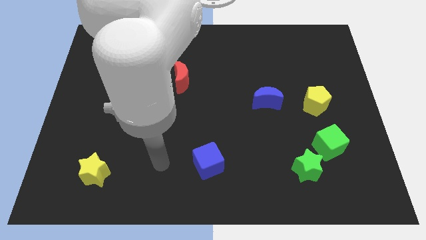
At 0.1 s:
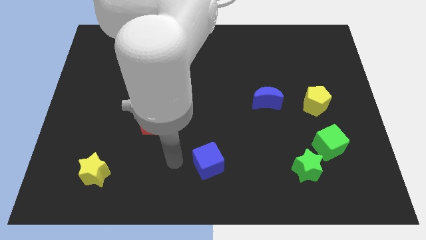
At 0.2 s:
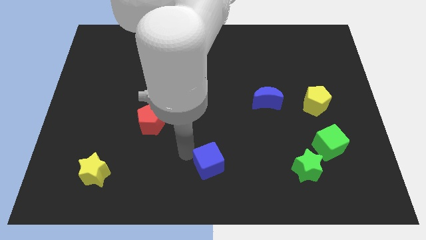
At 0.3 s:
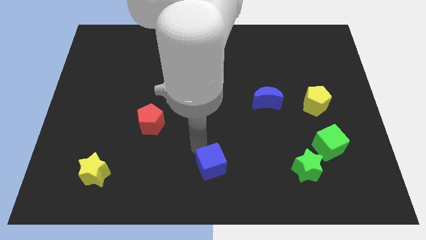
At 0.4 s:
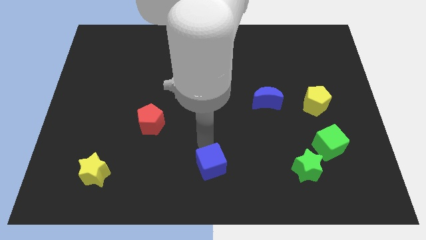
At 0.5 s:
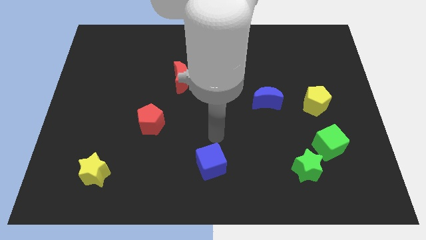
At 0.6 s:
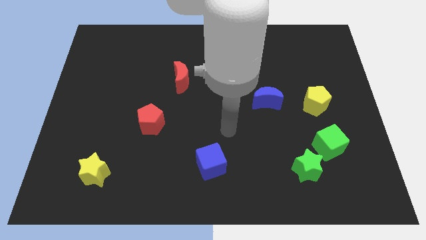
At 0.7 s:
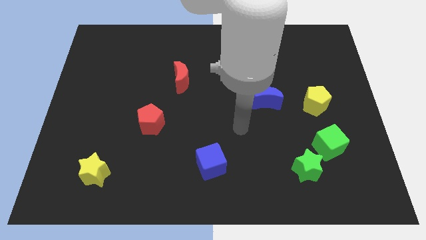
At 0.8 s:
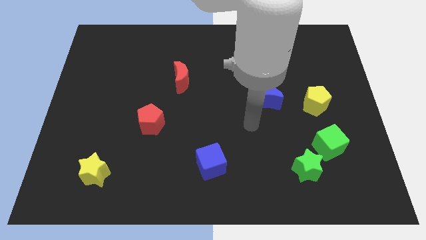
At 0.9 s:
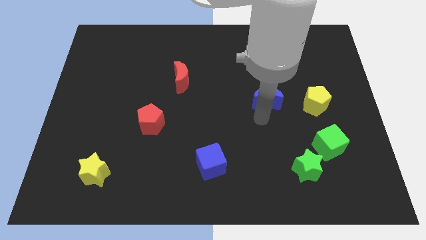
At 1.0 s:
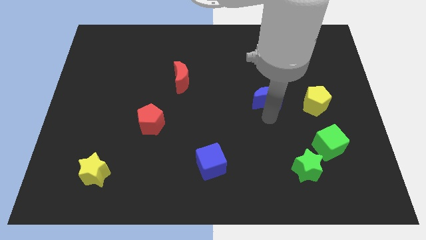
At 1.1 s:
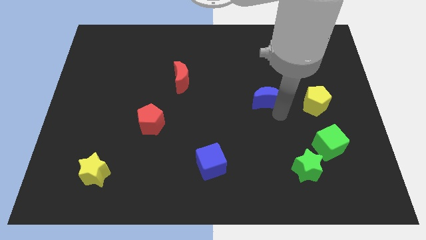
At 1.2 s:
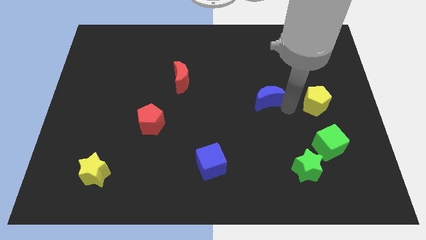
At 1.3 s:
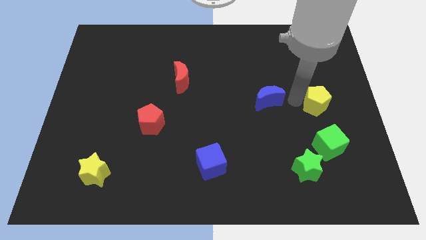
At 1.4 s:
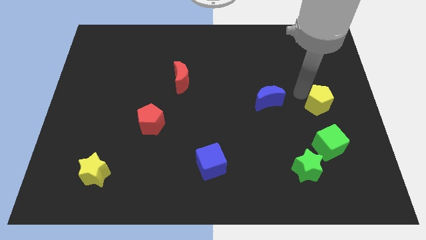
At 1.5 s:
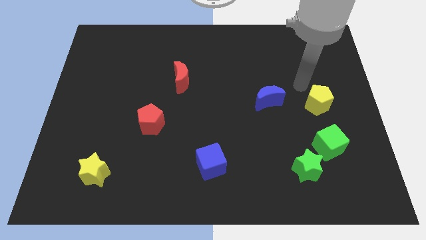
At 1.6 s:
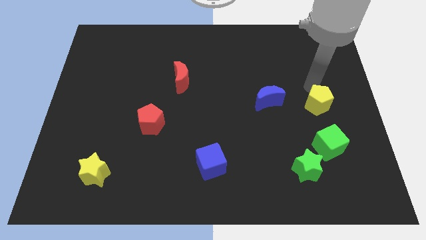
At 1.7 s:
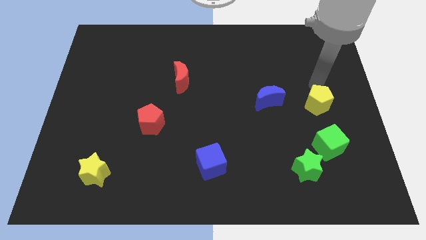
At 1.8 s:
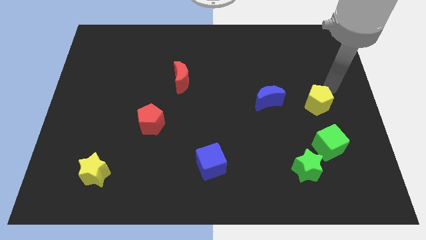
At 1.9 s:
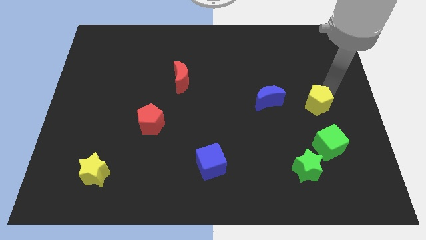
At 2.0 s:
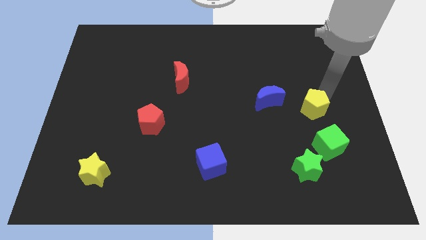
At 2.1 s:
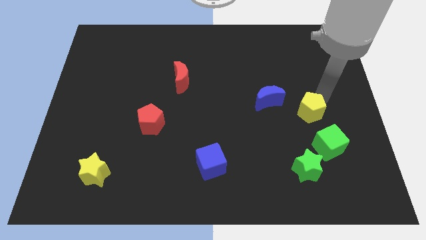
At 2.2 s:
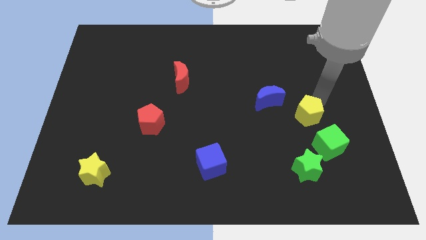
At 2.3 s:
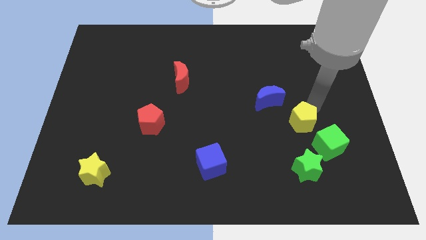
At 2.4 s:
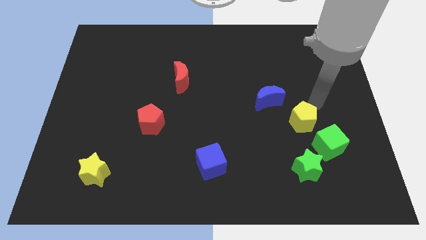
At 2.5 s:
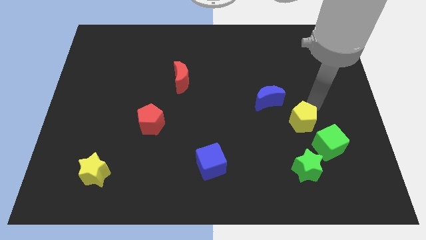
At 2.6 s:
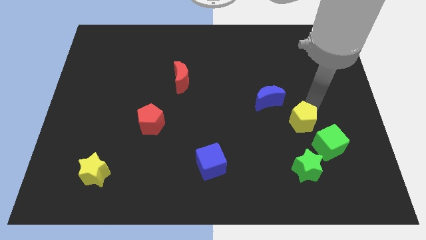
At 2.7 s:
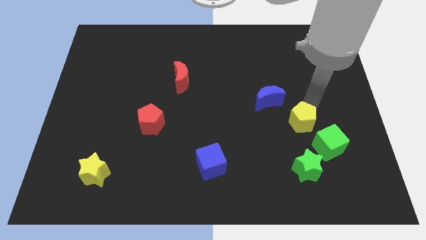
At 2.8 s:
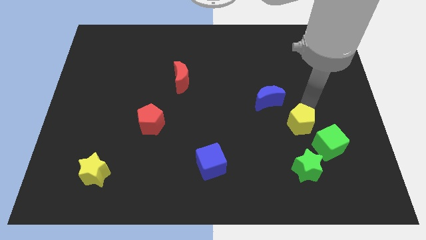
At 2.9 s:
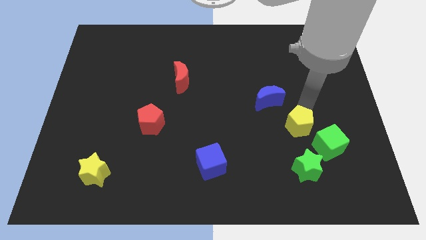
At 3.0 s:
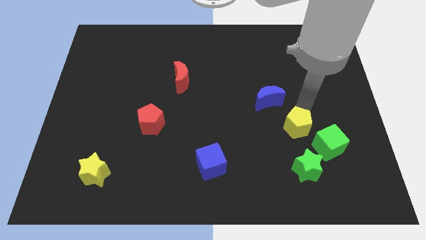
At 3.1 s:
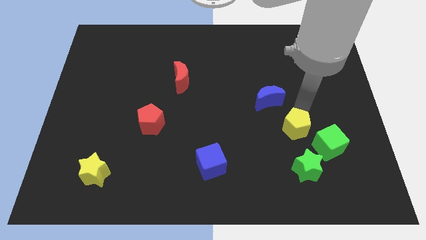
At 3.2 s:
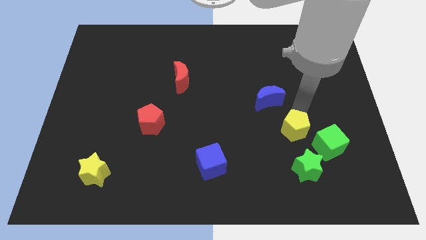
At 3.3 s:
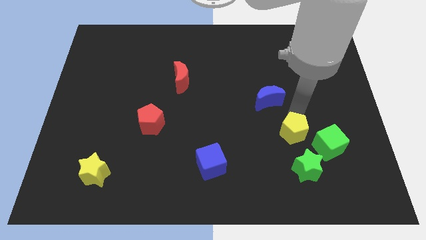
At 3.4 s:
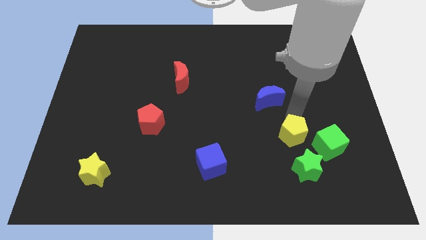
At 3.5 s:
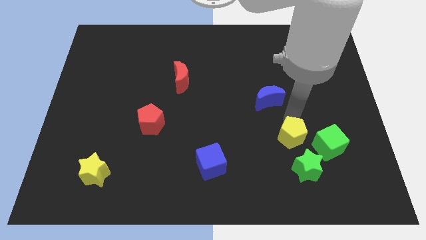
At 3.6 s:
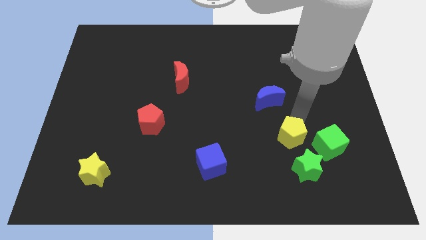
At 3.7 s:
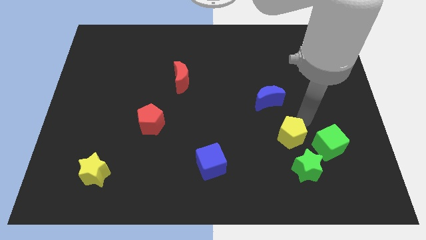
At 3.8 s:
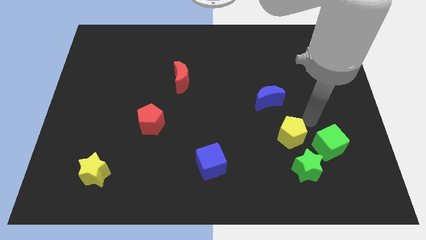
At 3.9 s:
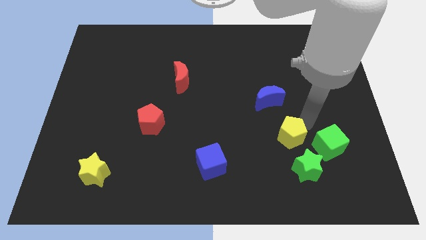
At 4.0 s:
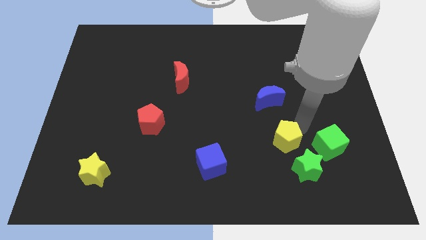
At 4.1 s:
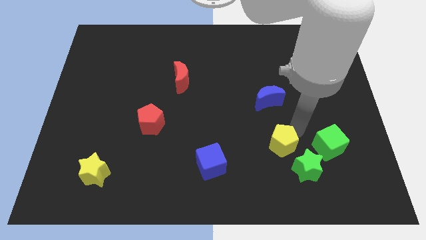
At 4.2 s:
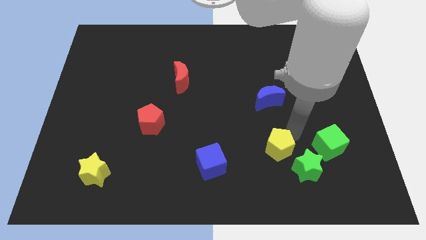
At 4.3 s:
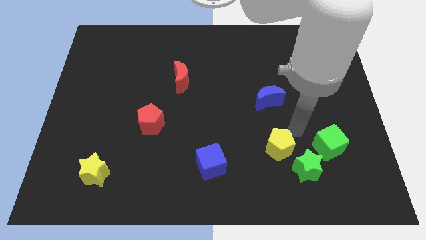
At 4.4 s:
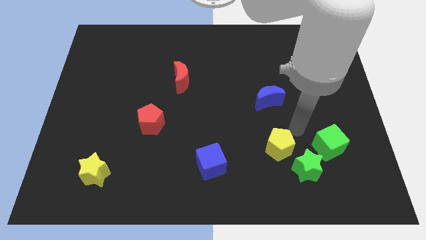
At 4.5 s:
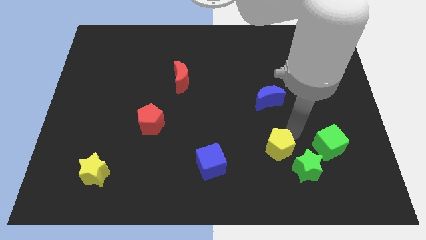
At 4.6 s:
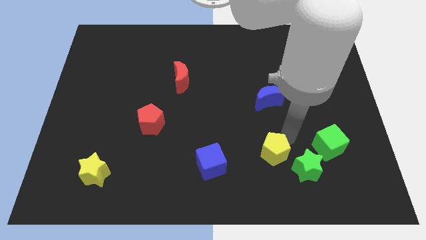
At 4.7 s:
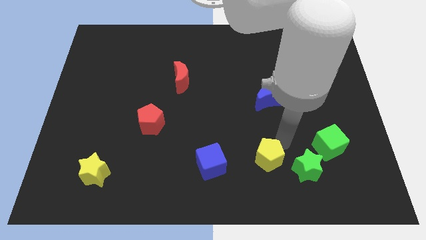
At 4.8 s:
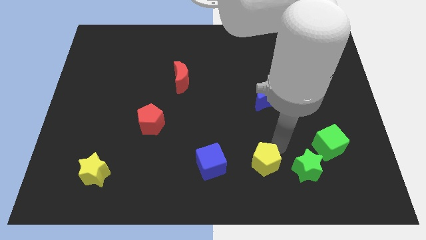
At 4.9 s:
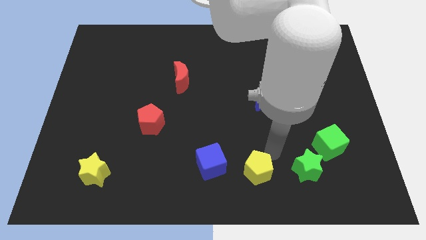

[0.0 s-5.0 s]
put the yellow pentagon to the bottom

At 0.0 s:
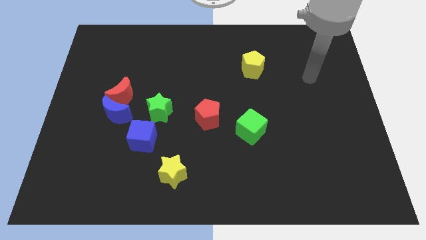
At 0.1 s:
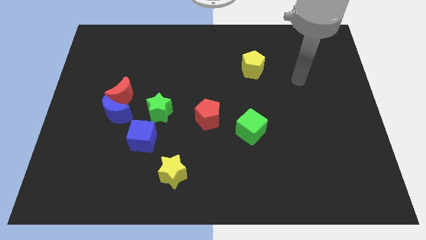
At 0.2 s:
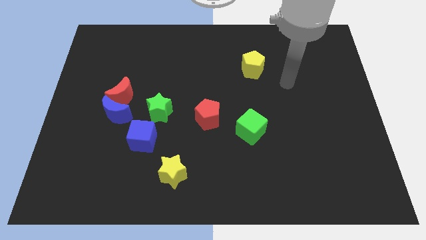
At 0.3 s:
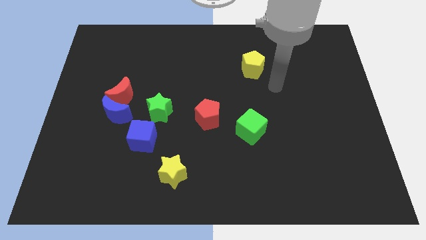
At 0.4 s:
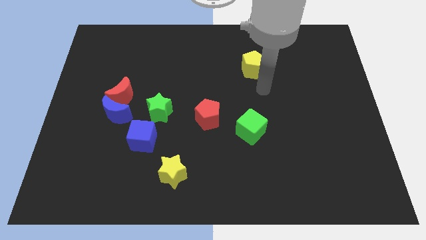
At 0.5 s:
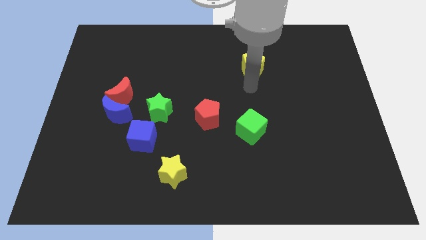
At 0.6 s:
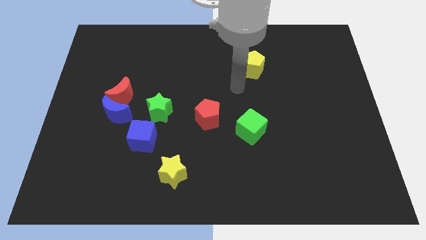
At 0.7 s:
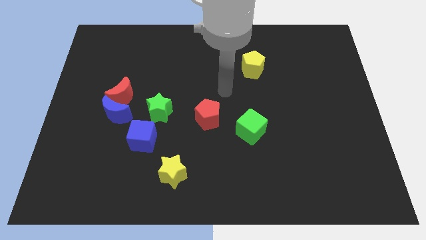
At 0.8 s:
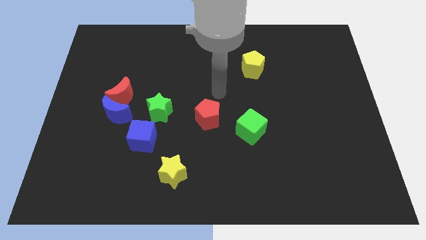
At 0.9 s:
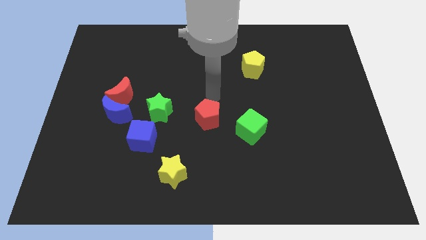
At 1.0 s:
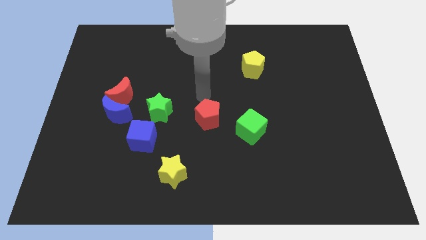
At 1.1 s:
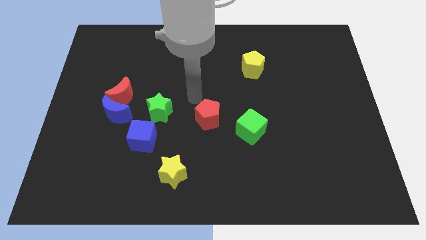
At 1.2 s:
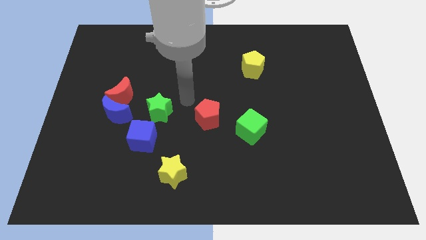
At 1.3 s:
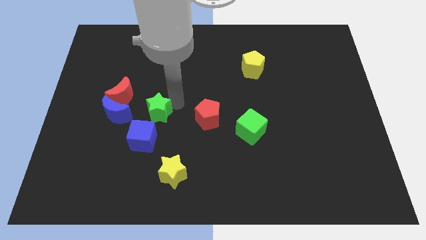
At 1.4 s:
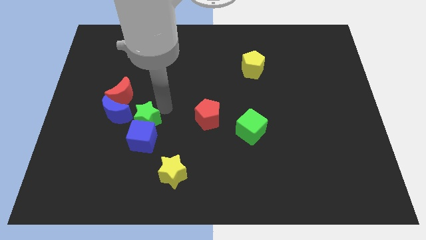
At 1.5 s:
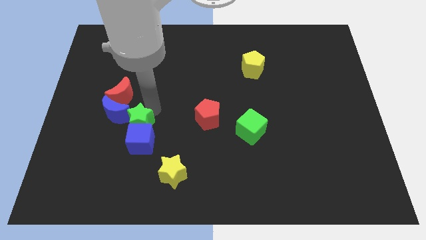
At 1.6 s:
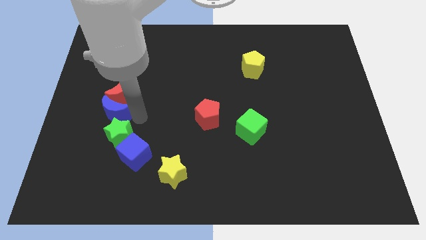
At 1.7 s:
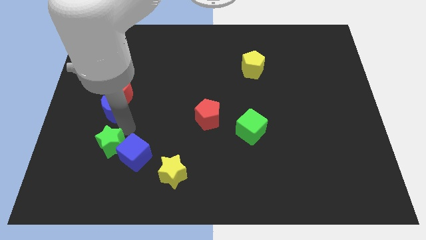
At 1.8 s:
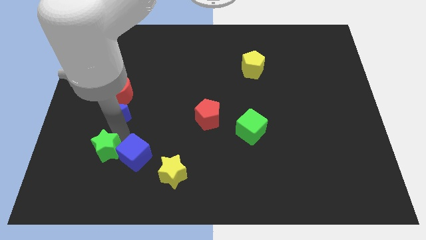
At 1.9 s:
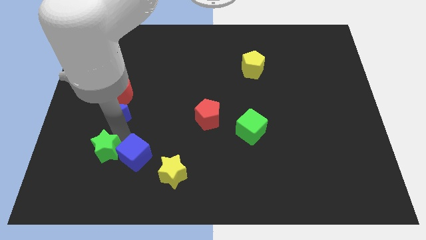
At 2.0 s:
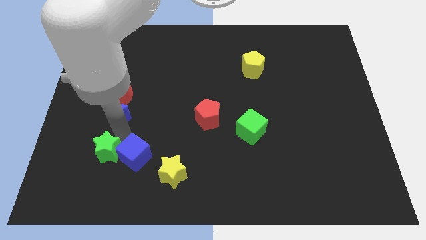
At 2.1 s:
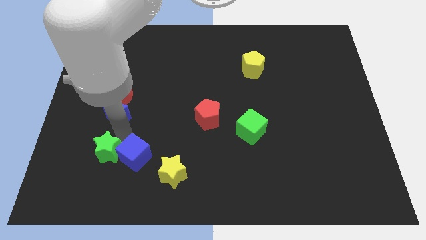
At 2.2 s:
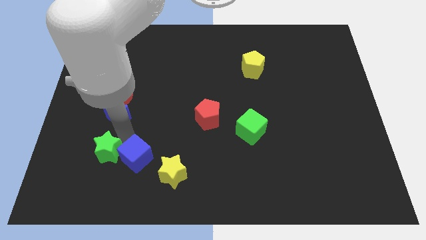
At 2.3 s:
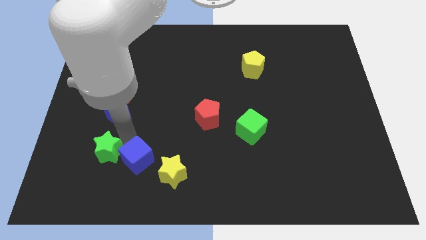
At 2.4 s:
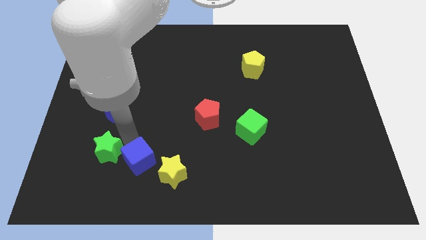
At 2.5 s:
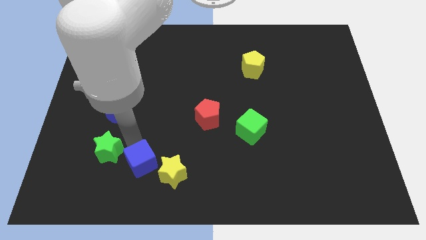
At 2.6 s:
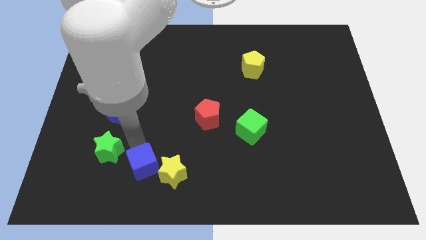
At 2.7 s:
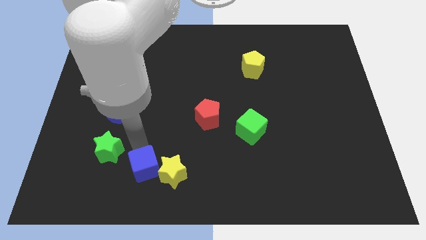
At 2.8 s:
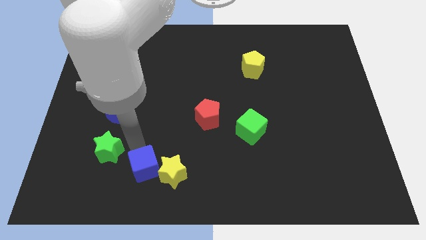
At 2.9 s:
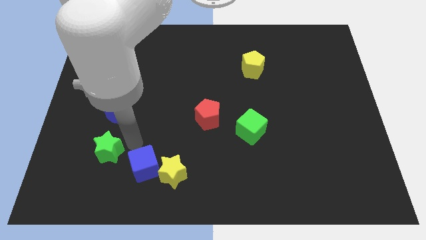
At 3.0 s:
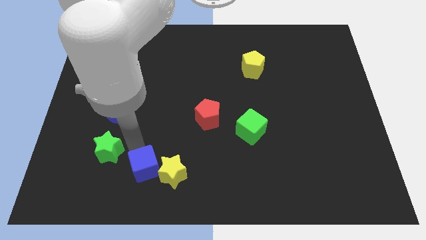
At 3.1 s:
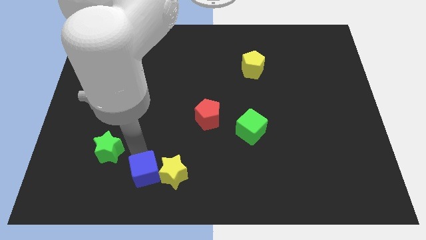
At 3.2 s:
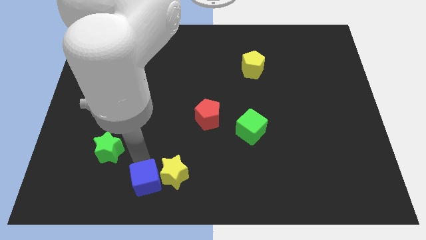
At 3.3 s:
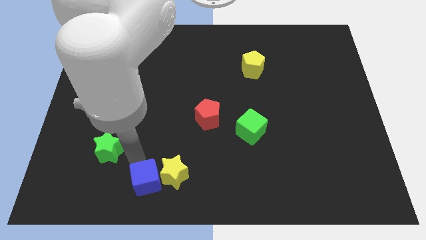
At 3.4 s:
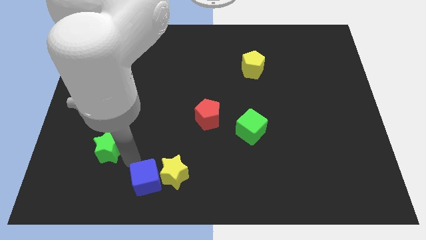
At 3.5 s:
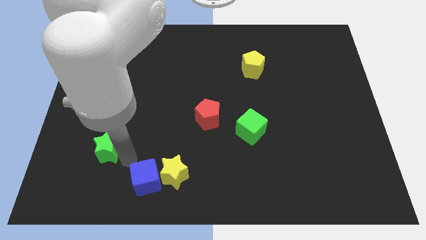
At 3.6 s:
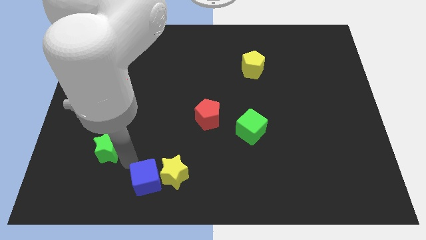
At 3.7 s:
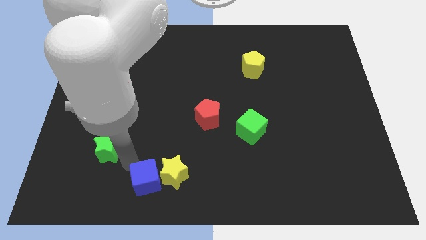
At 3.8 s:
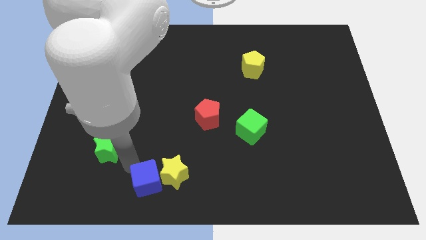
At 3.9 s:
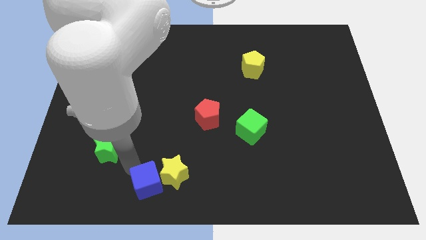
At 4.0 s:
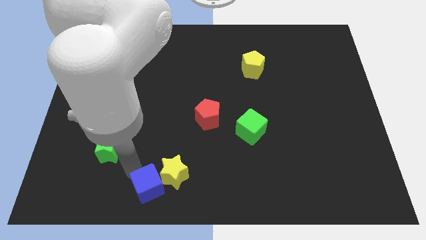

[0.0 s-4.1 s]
move the blue cube to the bottom side
